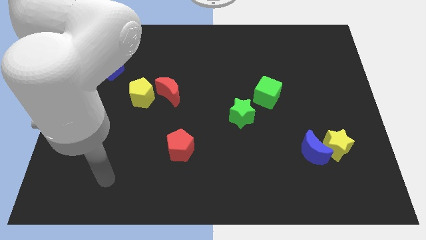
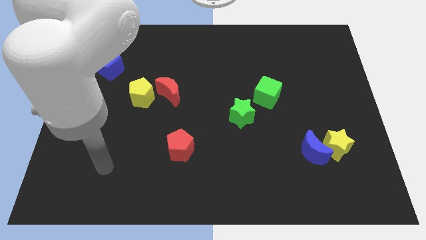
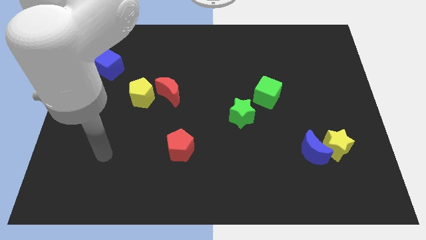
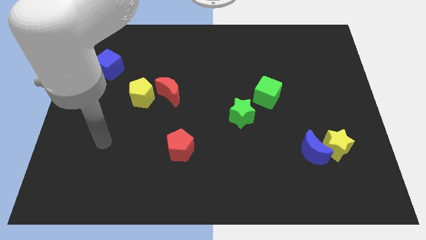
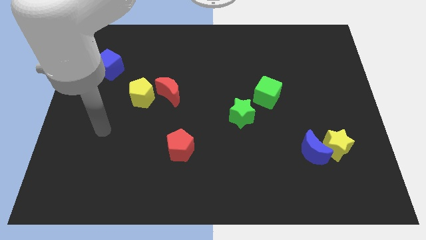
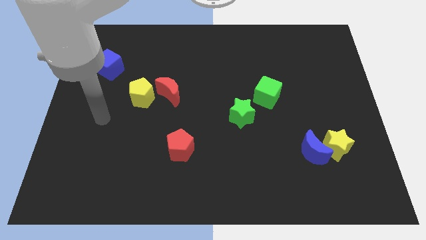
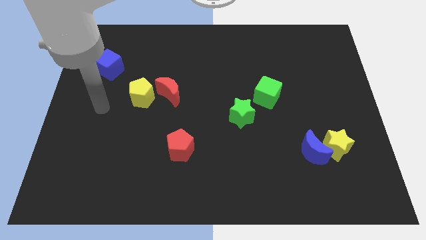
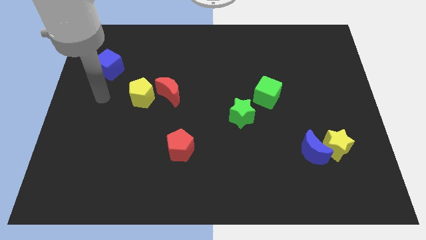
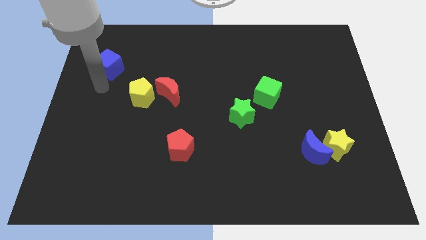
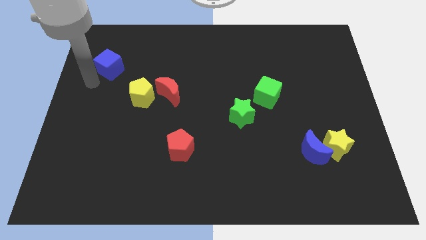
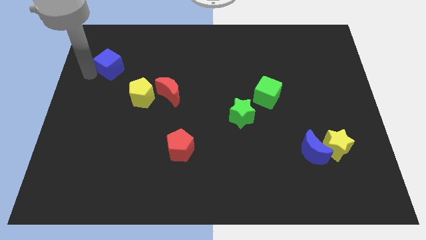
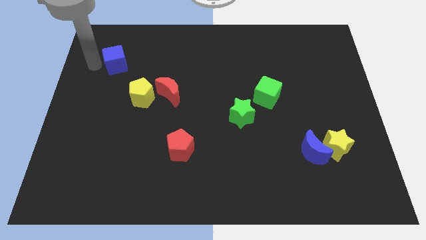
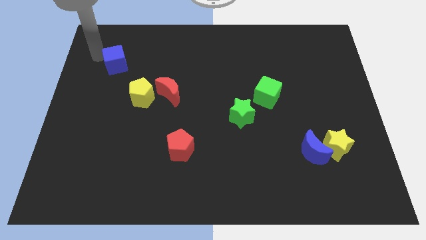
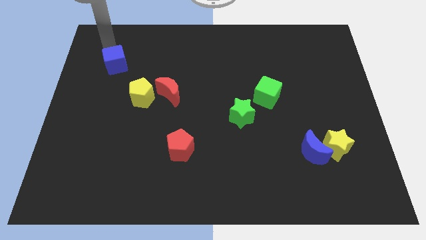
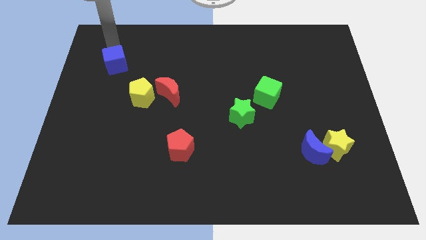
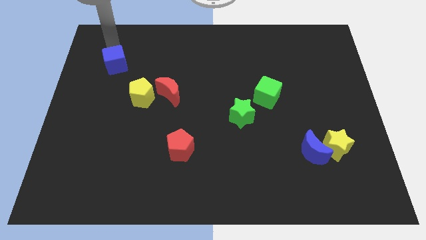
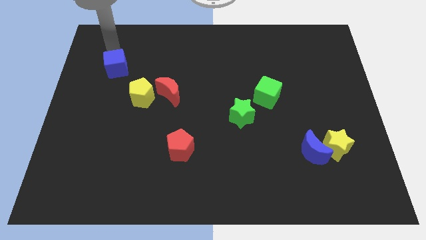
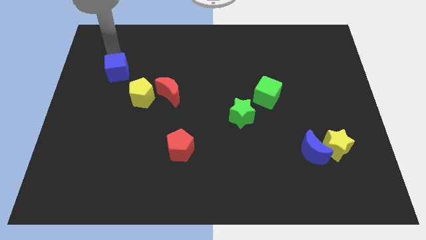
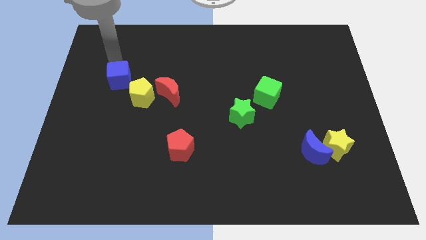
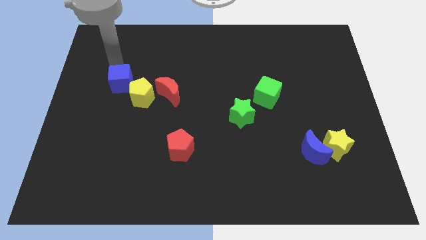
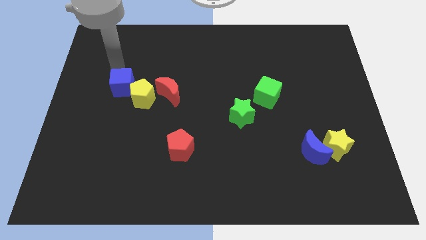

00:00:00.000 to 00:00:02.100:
slightly slide the blue cube diagonally downwards and right

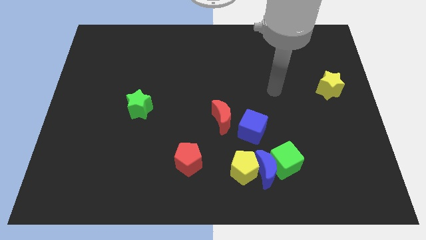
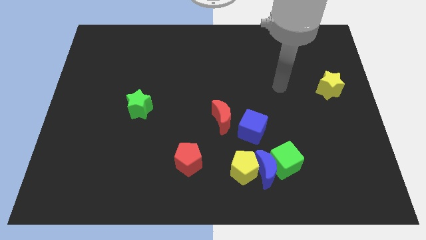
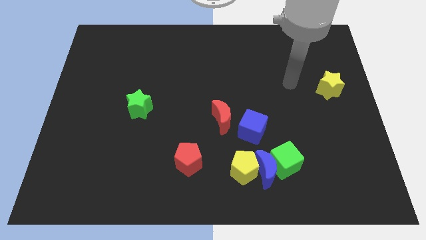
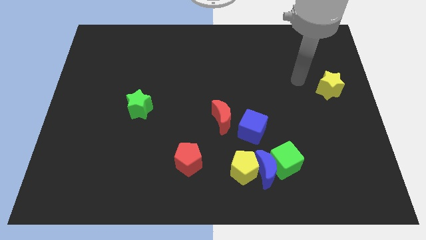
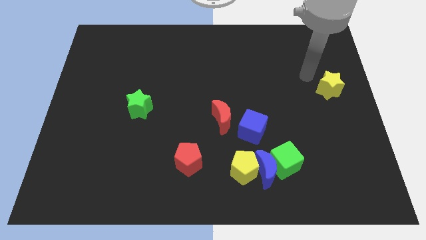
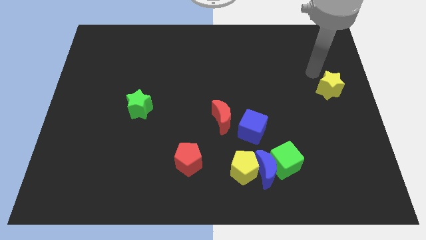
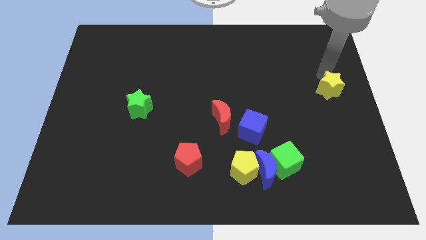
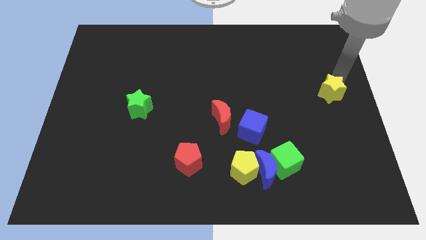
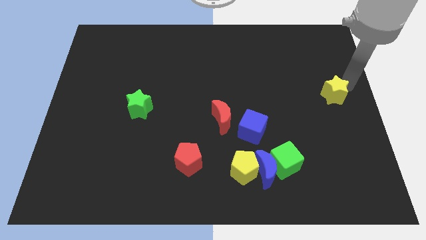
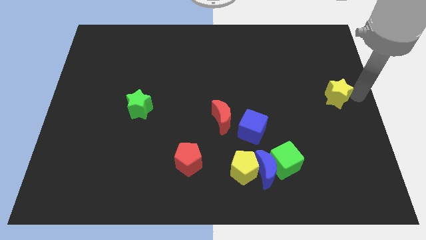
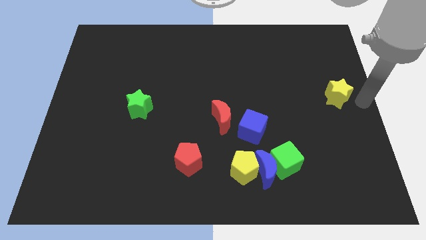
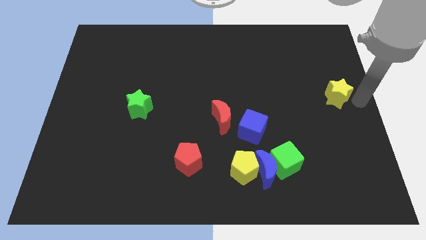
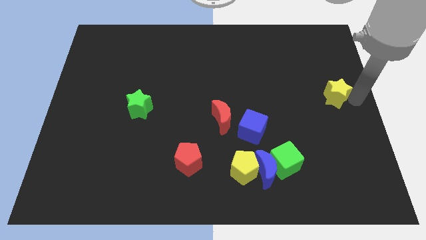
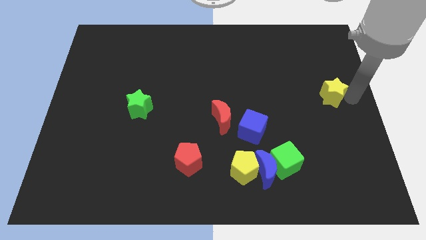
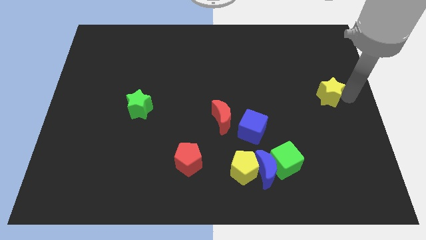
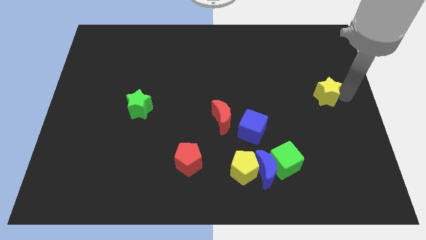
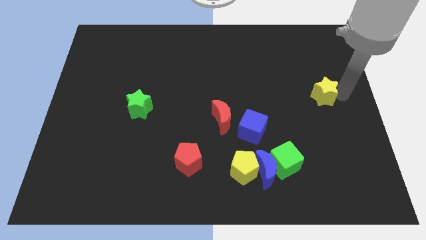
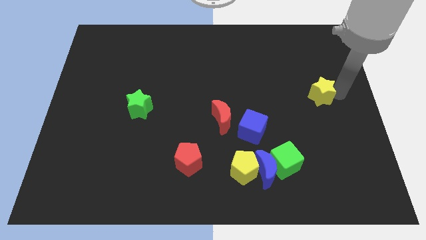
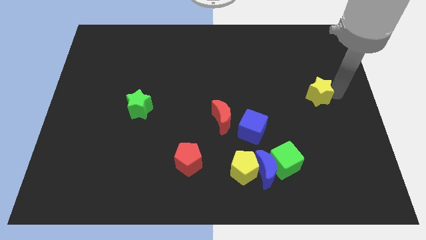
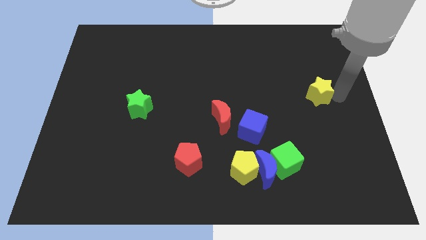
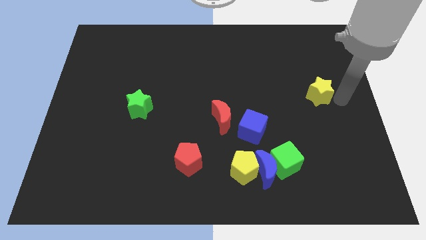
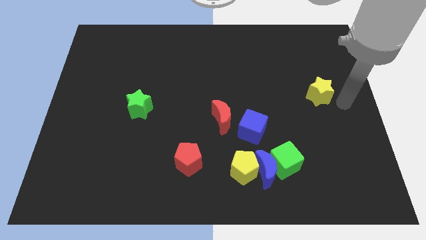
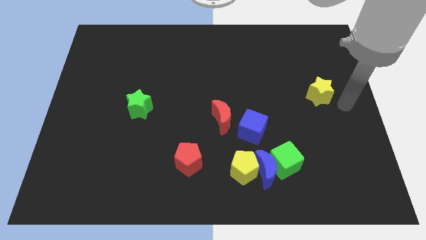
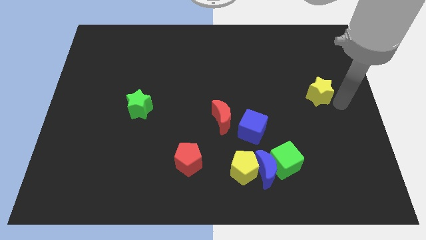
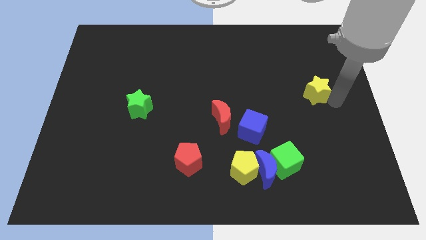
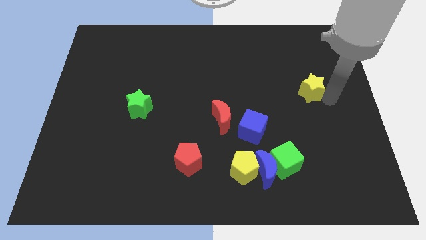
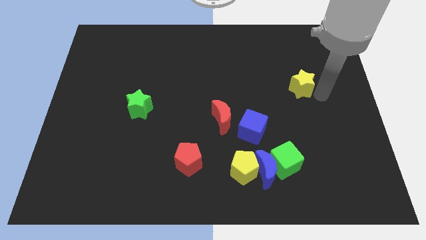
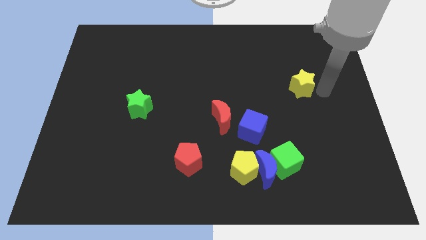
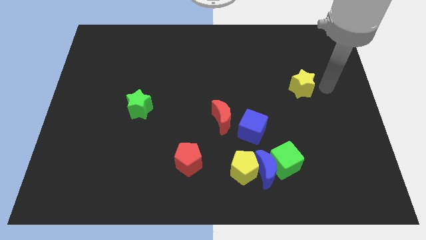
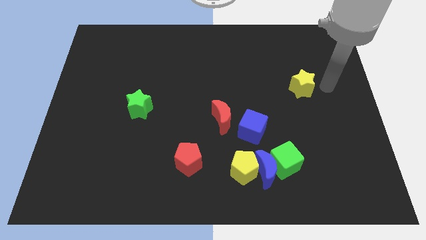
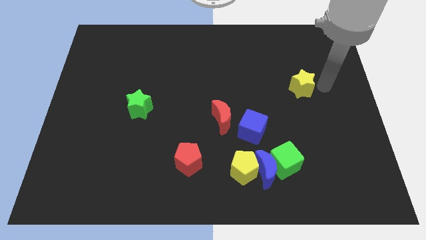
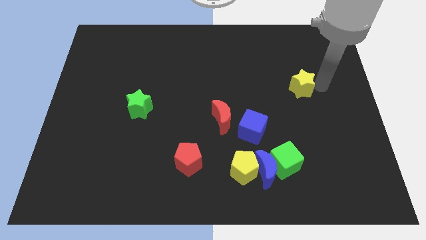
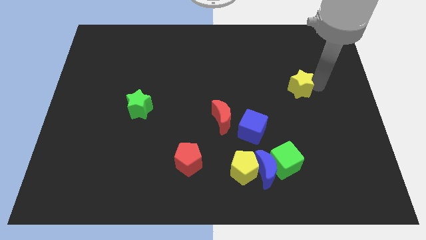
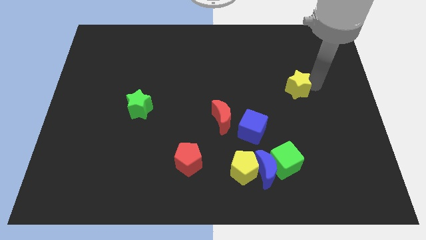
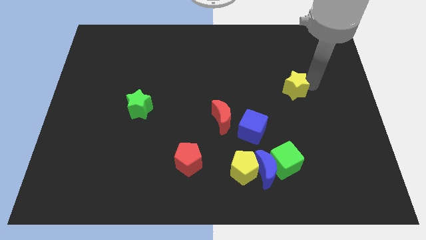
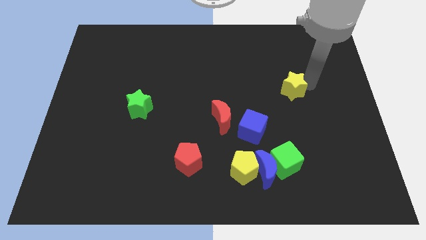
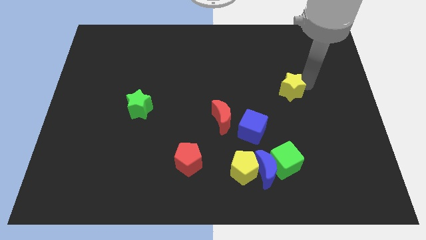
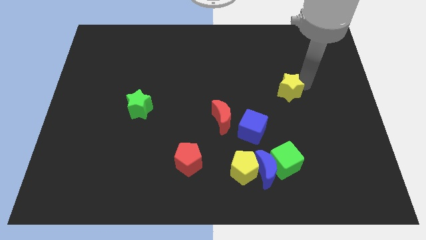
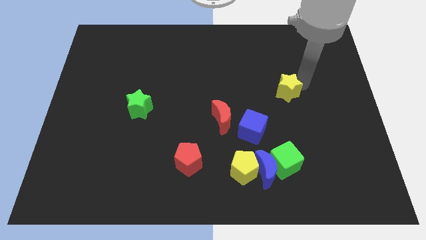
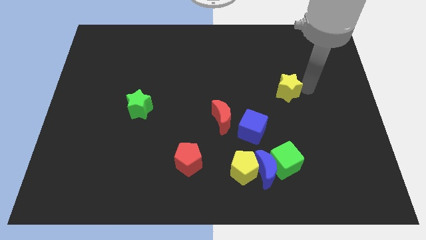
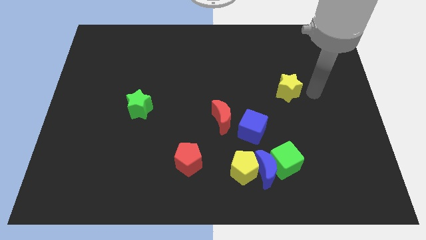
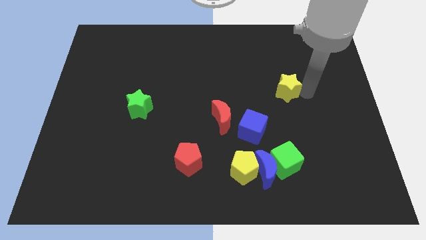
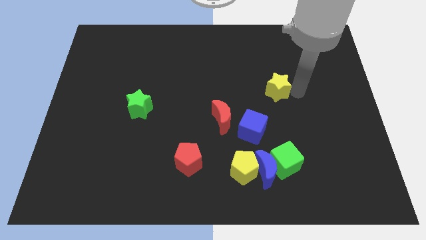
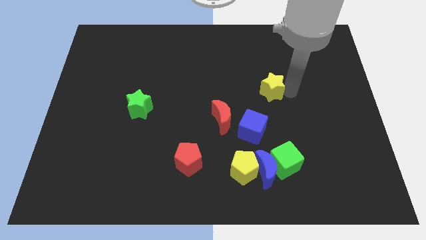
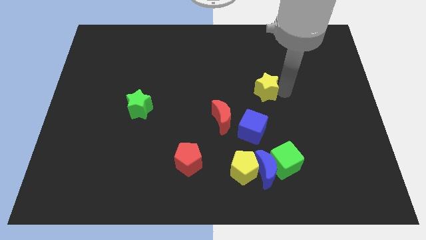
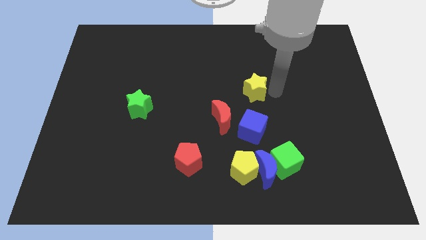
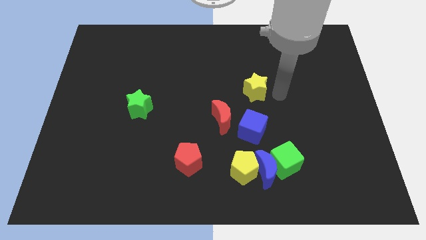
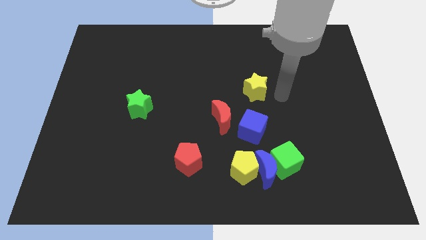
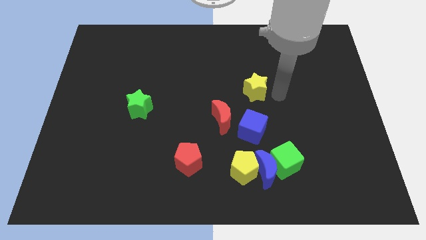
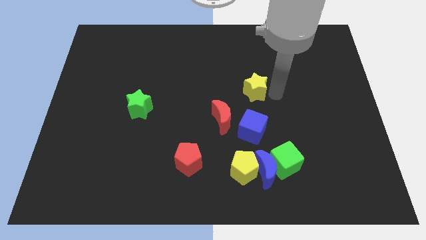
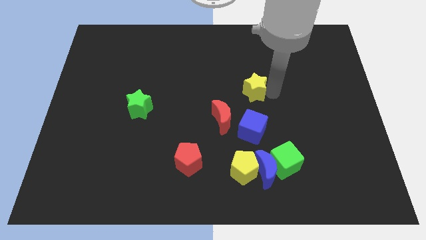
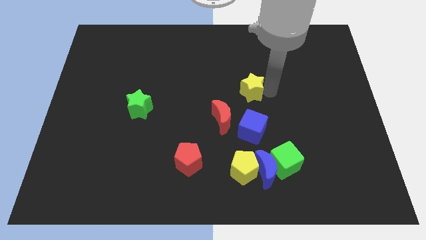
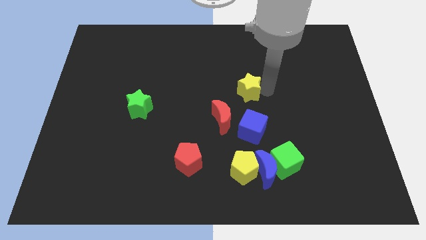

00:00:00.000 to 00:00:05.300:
move the yellow star to the left

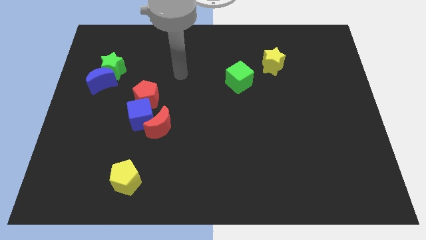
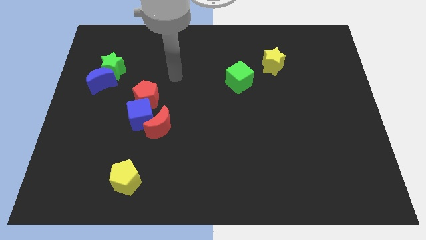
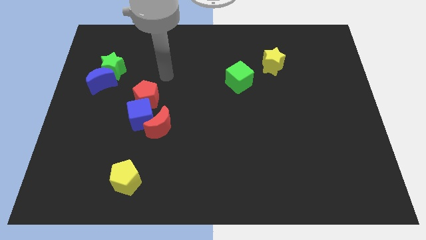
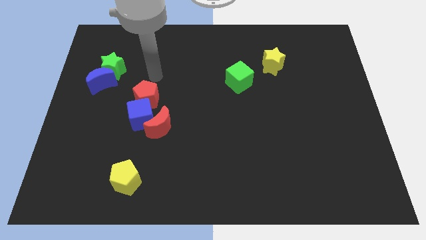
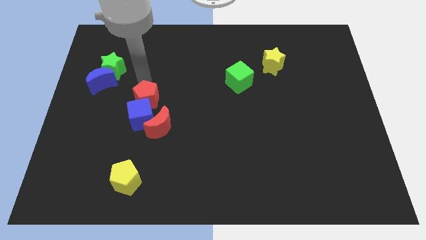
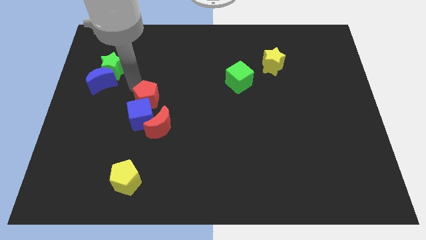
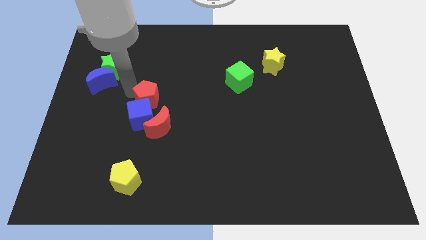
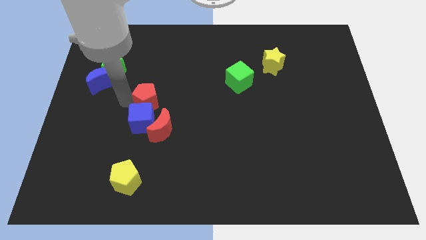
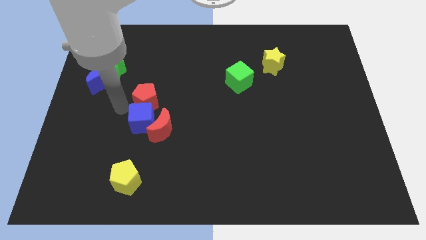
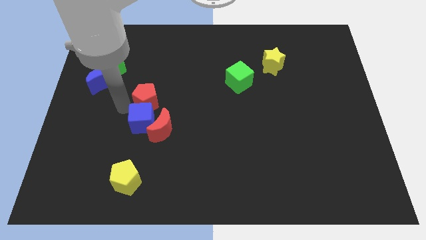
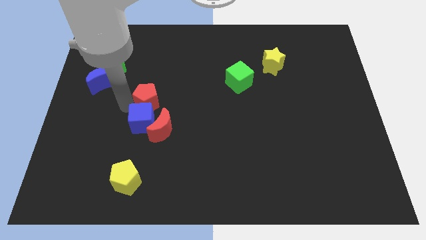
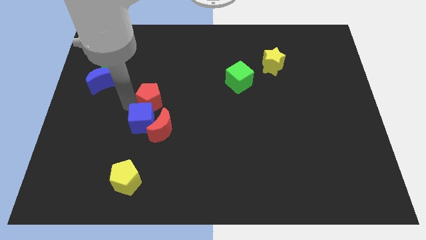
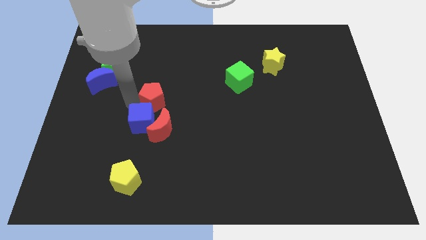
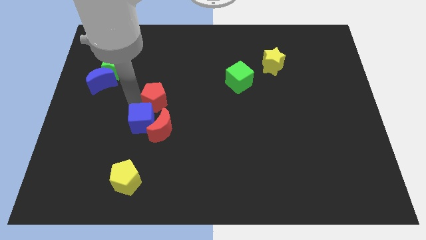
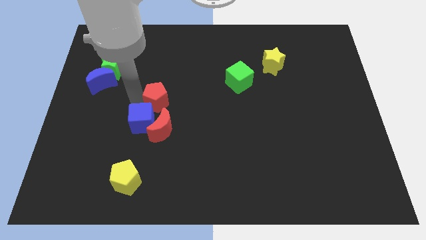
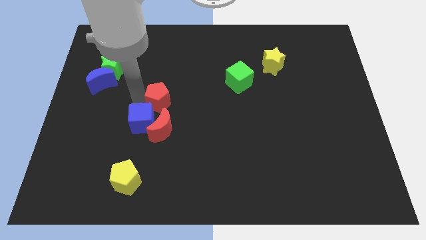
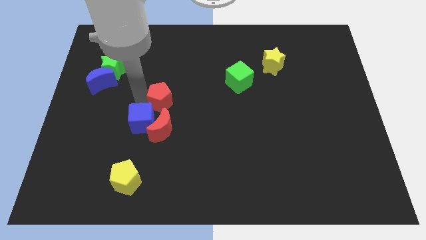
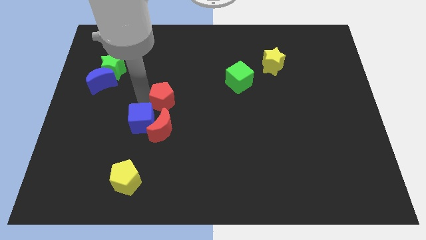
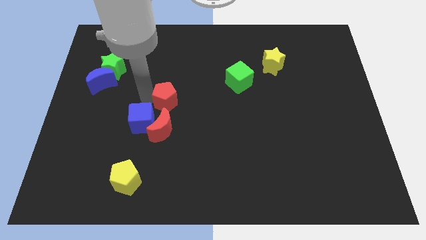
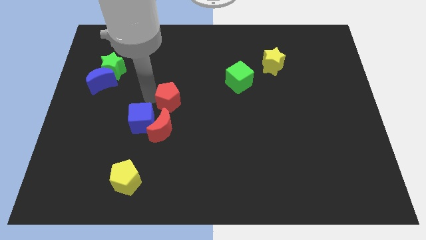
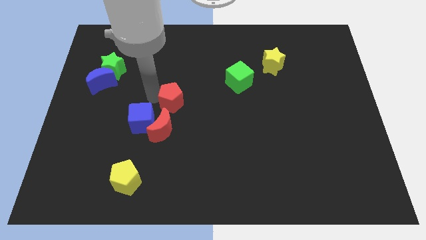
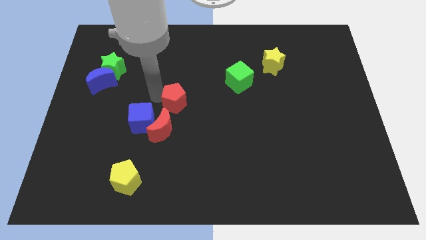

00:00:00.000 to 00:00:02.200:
slightly slide the red pentagon right
